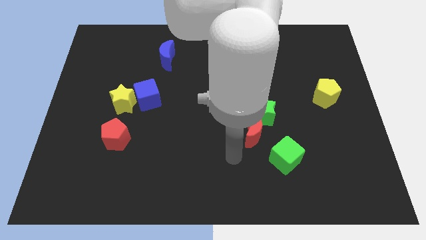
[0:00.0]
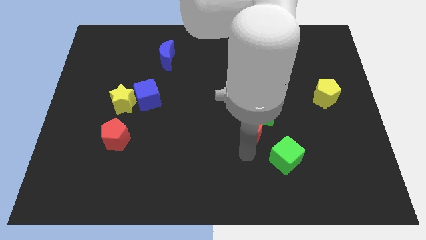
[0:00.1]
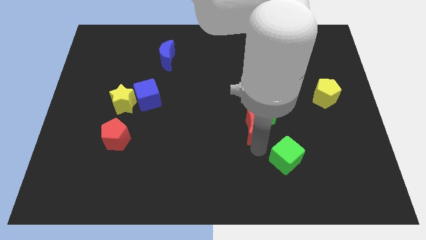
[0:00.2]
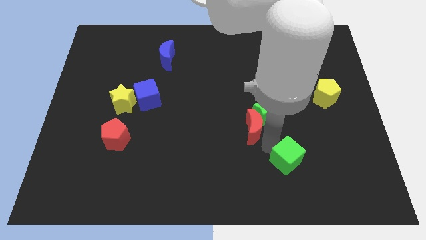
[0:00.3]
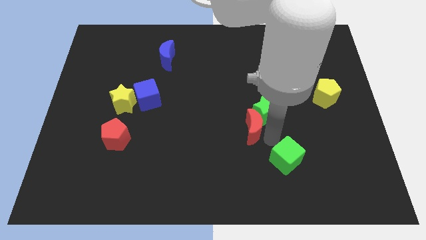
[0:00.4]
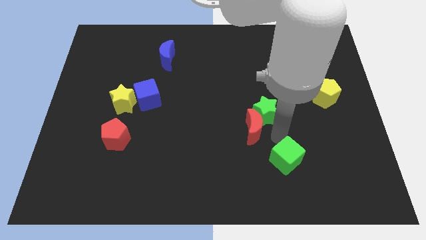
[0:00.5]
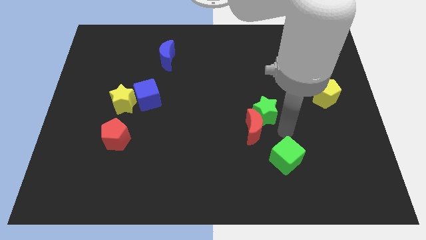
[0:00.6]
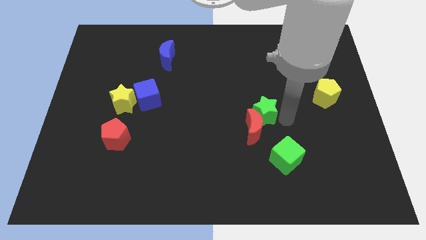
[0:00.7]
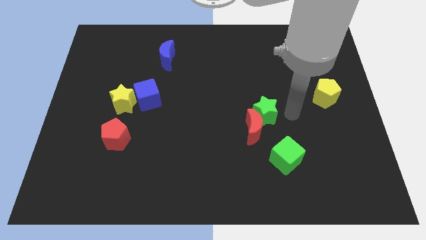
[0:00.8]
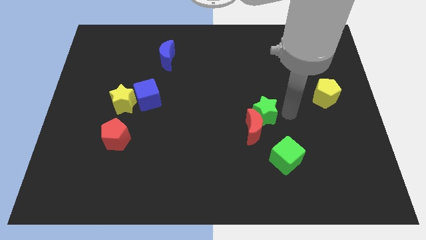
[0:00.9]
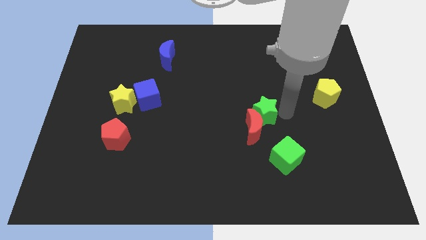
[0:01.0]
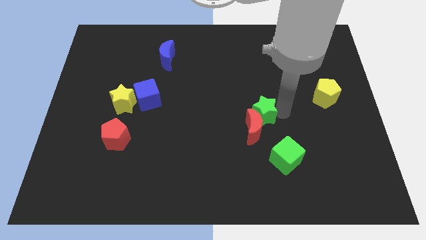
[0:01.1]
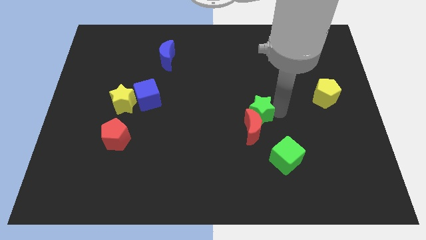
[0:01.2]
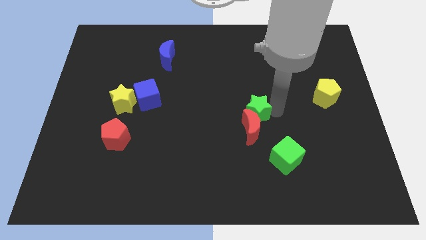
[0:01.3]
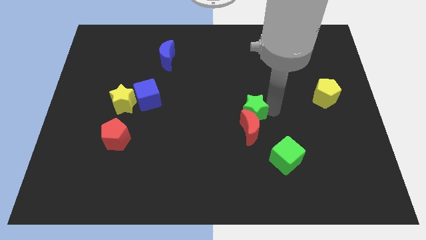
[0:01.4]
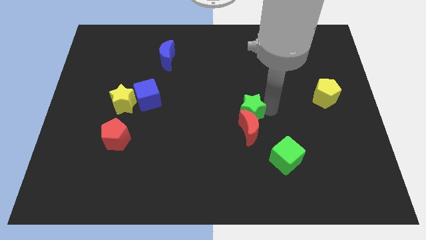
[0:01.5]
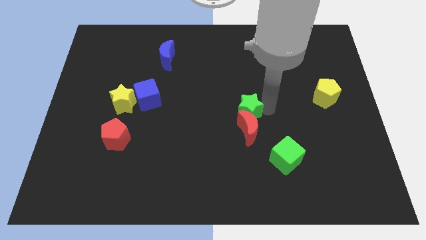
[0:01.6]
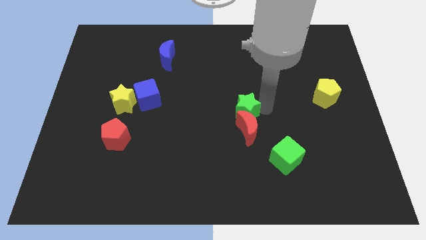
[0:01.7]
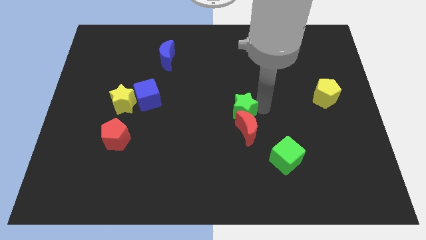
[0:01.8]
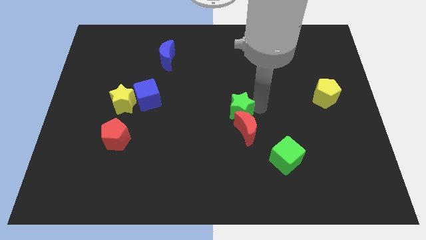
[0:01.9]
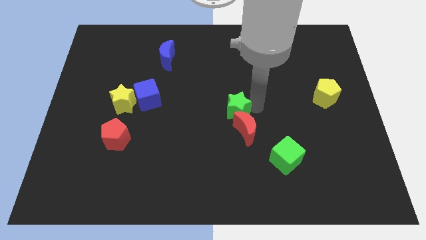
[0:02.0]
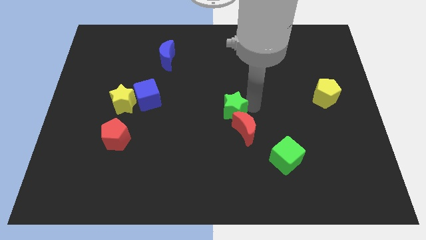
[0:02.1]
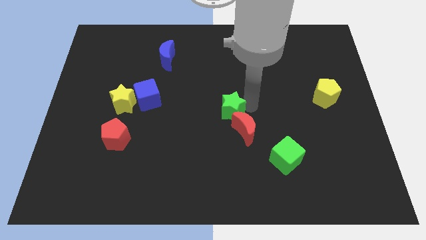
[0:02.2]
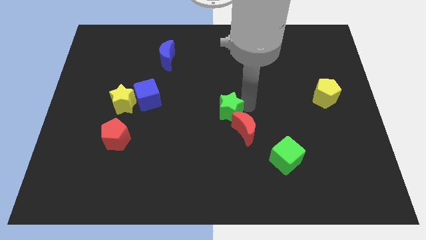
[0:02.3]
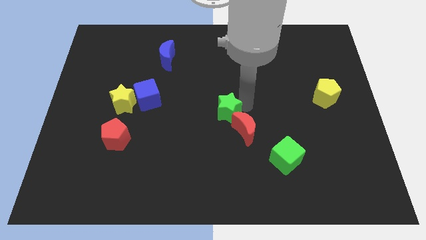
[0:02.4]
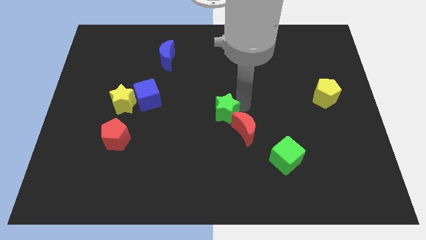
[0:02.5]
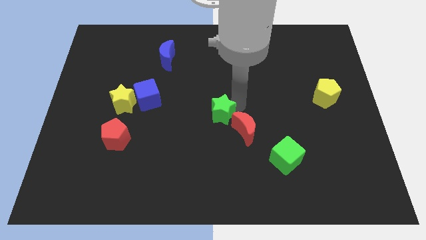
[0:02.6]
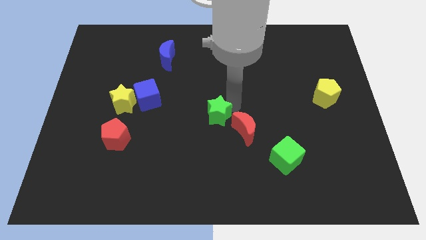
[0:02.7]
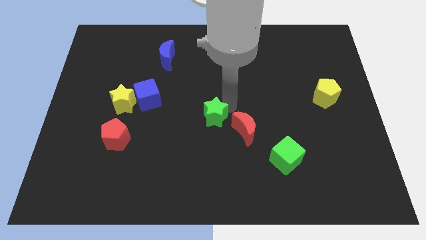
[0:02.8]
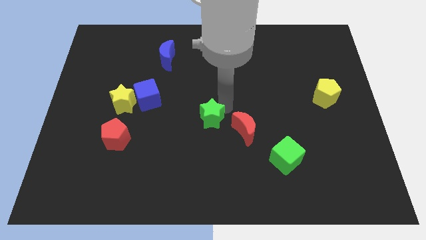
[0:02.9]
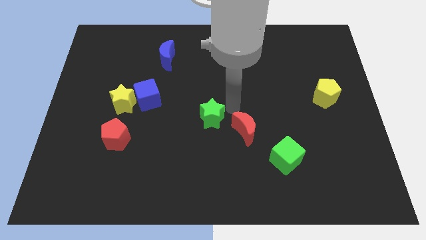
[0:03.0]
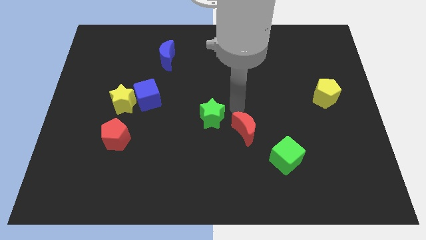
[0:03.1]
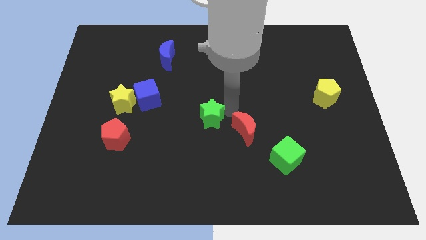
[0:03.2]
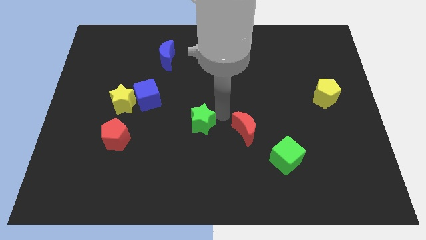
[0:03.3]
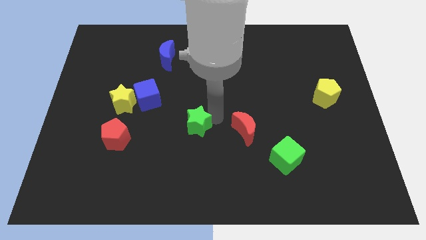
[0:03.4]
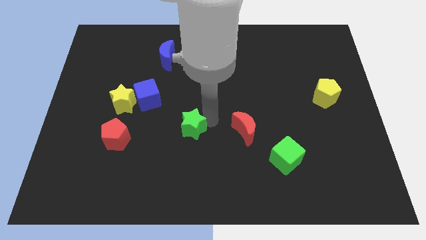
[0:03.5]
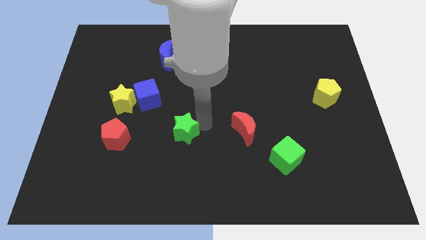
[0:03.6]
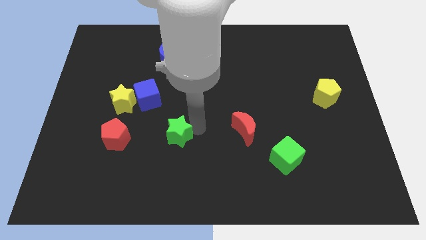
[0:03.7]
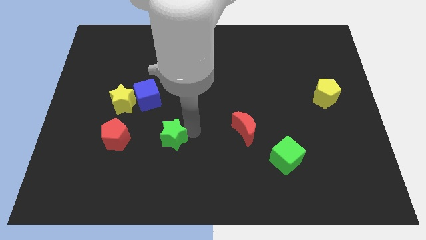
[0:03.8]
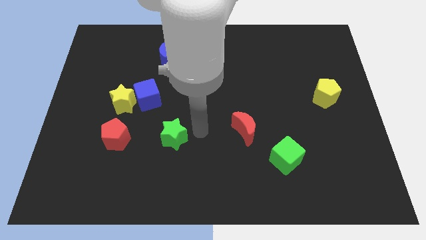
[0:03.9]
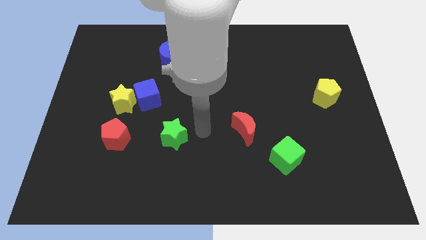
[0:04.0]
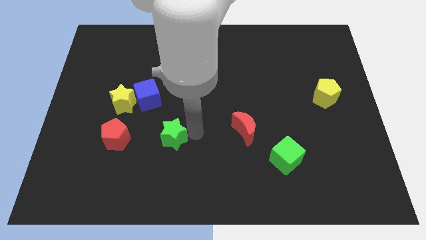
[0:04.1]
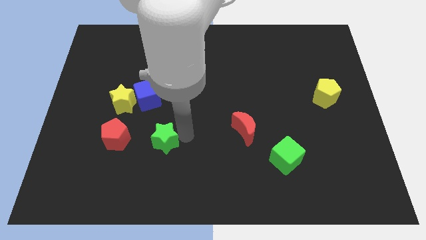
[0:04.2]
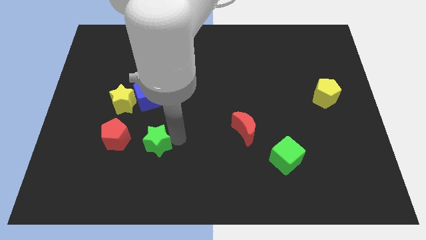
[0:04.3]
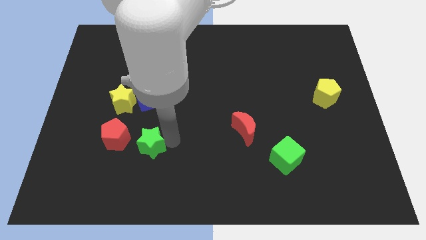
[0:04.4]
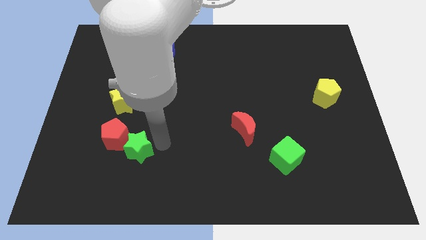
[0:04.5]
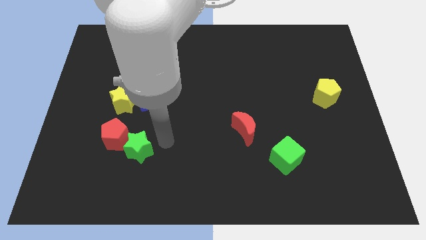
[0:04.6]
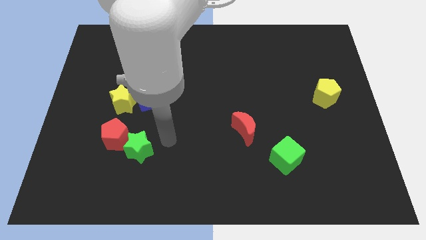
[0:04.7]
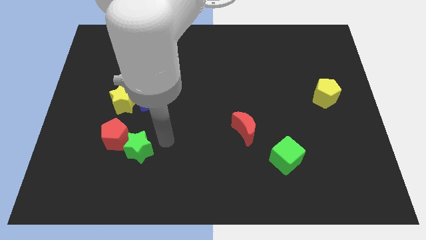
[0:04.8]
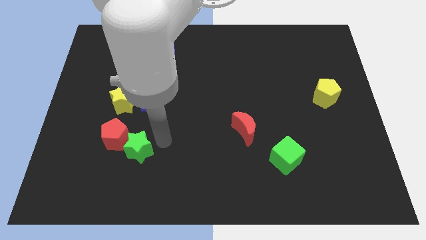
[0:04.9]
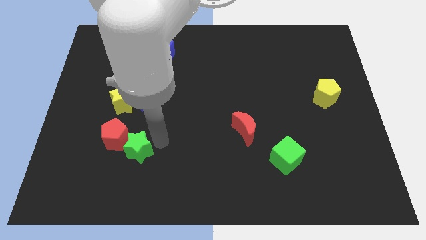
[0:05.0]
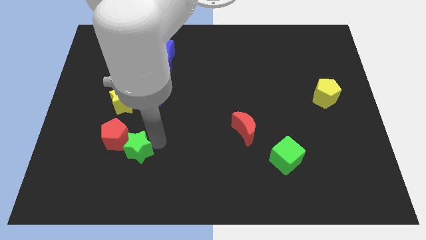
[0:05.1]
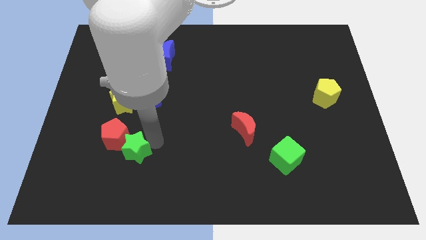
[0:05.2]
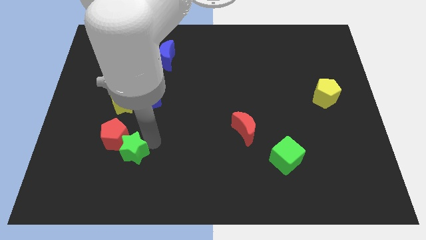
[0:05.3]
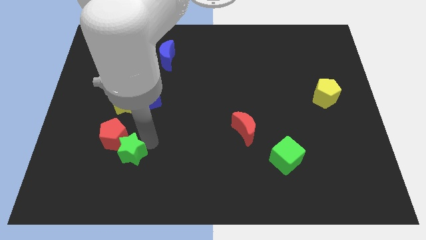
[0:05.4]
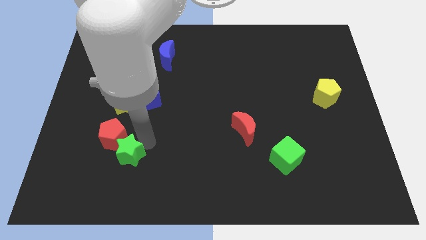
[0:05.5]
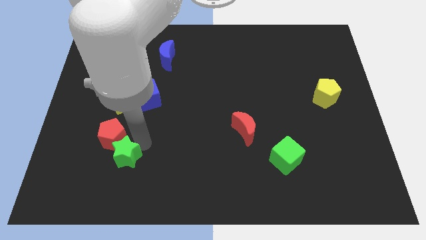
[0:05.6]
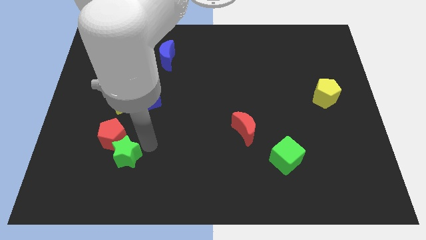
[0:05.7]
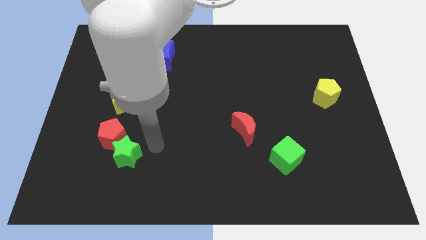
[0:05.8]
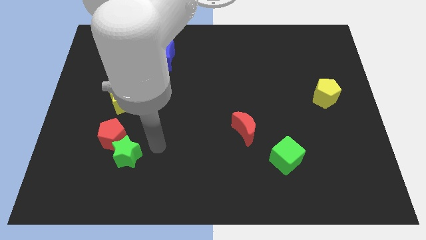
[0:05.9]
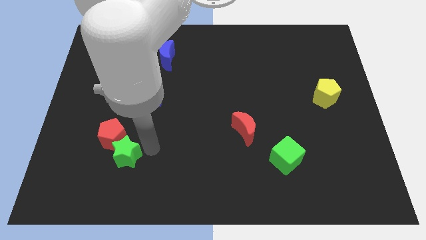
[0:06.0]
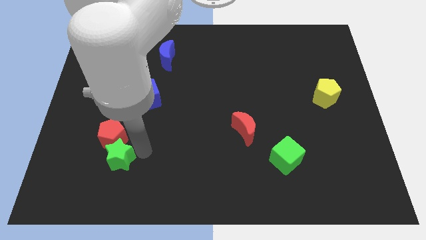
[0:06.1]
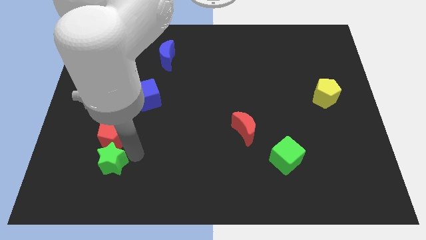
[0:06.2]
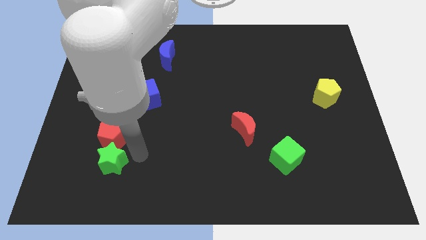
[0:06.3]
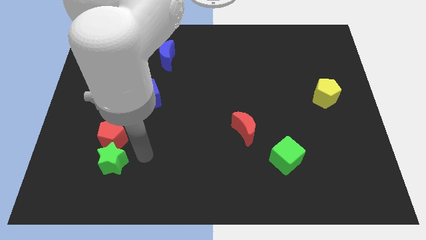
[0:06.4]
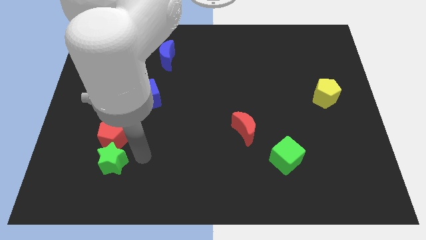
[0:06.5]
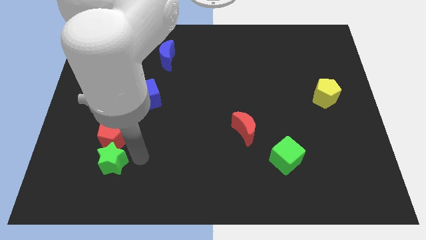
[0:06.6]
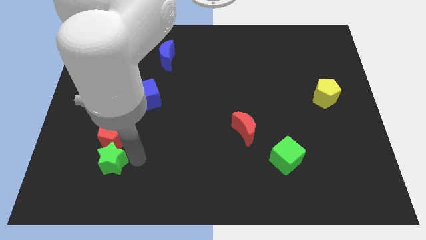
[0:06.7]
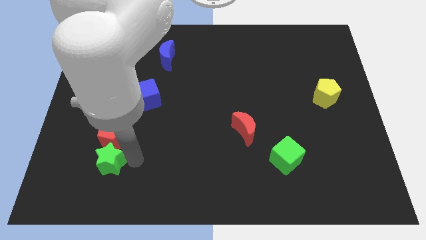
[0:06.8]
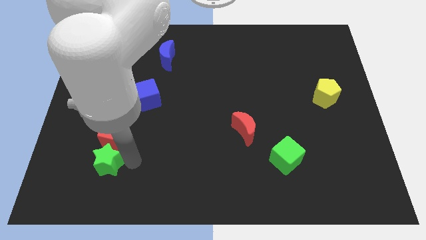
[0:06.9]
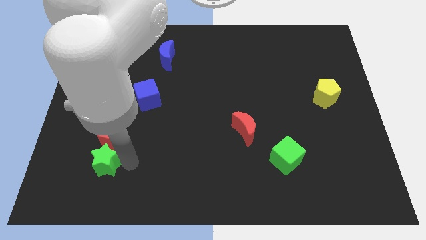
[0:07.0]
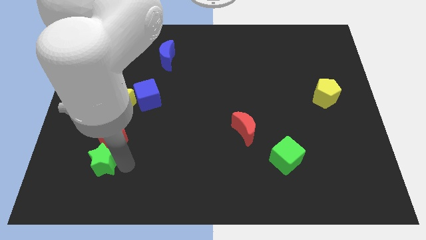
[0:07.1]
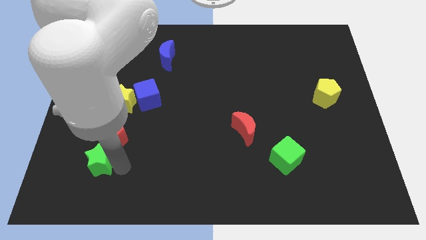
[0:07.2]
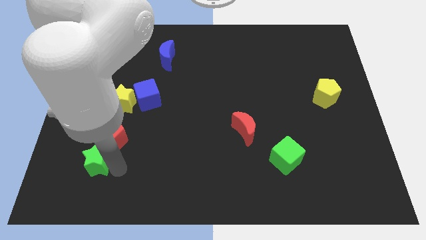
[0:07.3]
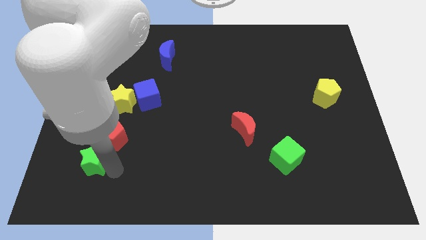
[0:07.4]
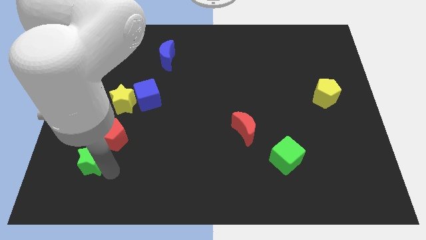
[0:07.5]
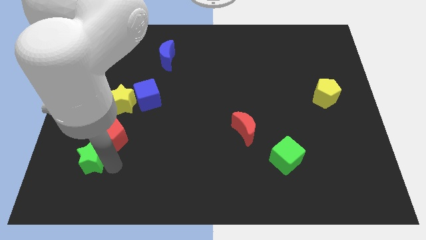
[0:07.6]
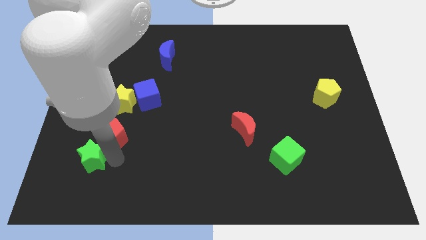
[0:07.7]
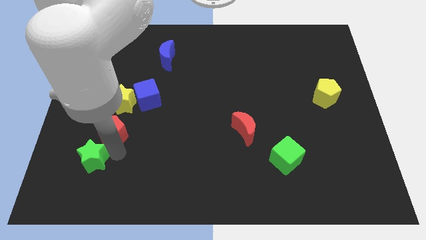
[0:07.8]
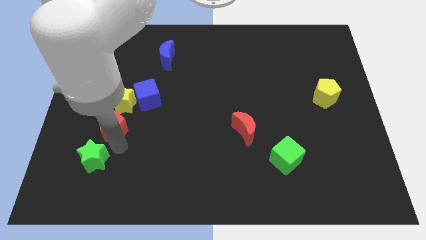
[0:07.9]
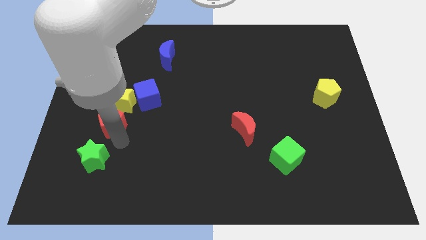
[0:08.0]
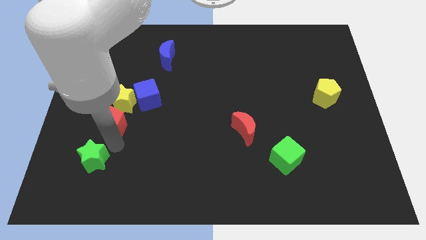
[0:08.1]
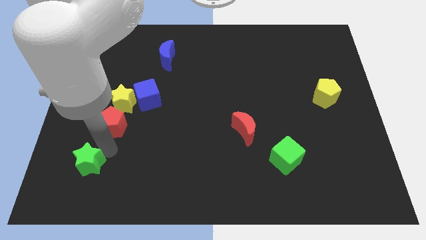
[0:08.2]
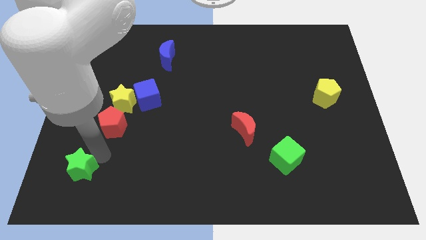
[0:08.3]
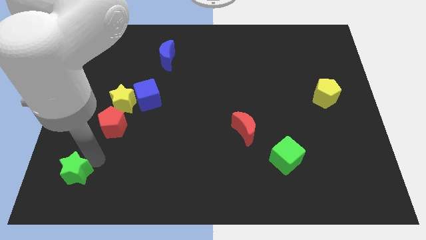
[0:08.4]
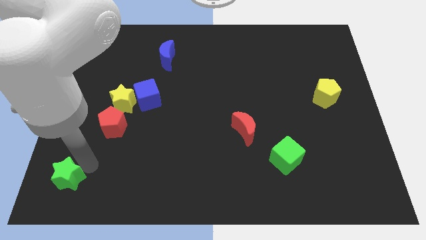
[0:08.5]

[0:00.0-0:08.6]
push the green star to the bottom left
